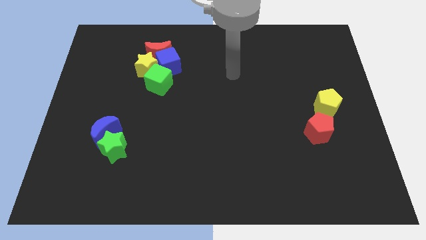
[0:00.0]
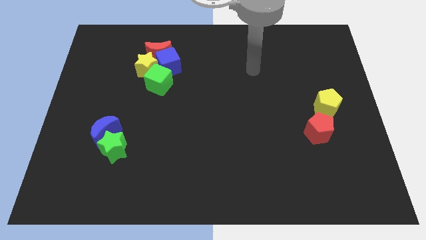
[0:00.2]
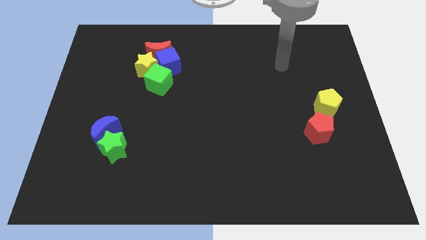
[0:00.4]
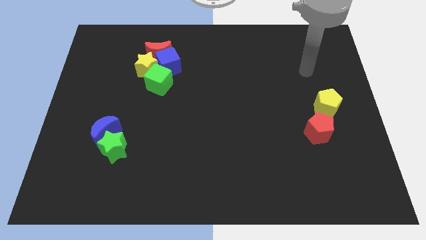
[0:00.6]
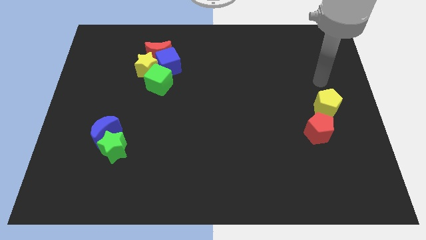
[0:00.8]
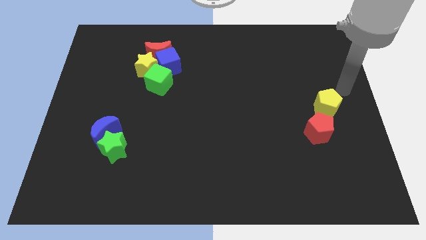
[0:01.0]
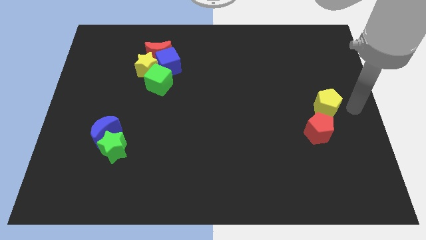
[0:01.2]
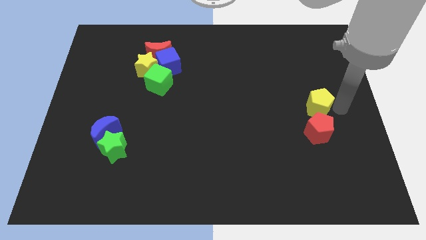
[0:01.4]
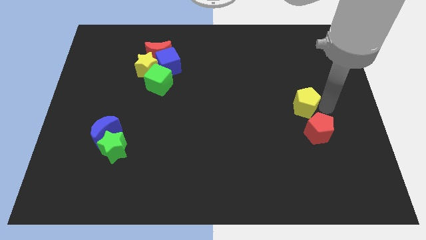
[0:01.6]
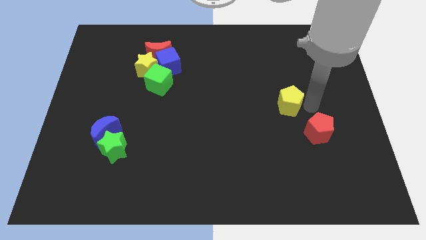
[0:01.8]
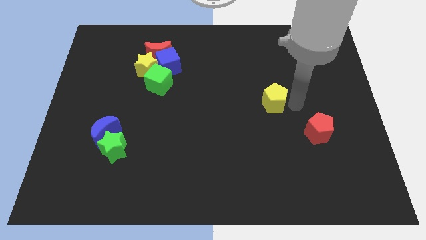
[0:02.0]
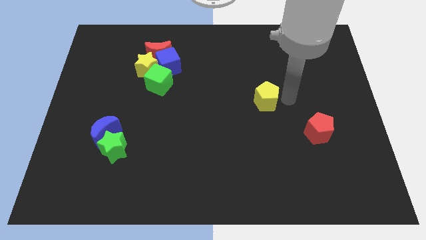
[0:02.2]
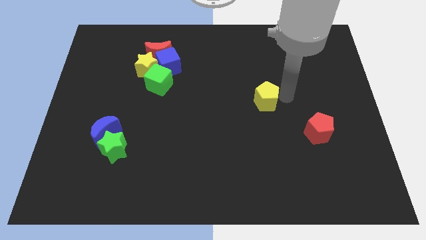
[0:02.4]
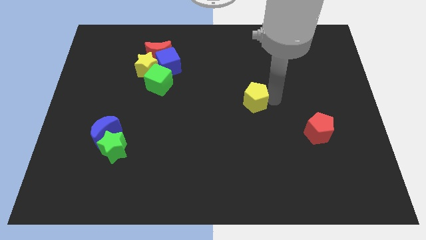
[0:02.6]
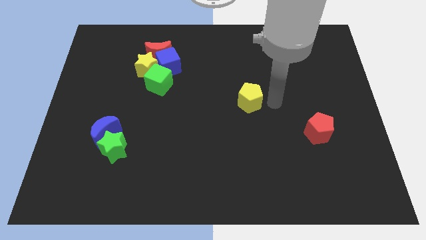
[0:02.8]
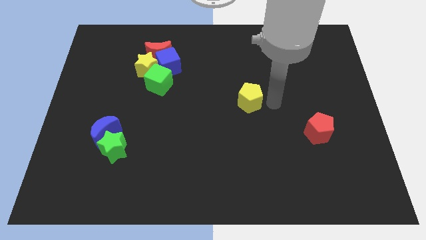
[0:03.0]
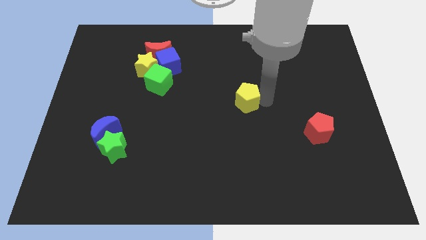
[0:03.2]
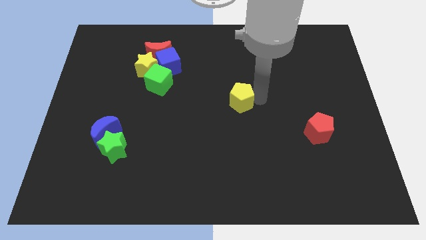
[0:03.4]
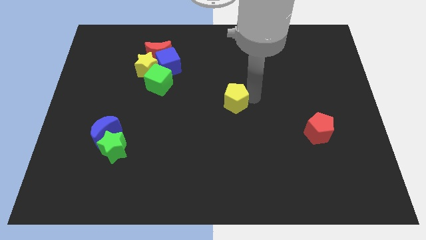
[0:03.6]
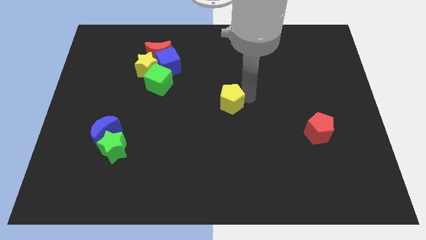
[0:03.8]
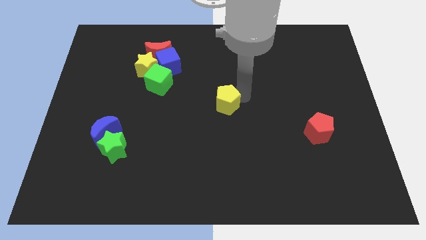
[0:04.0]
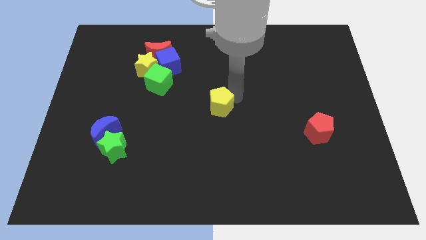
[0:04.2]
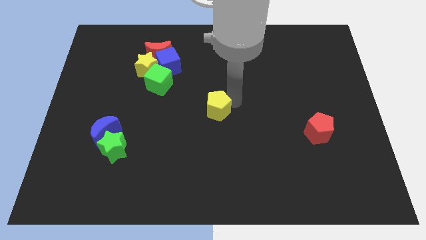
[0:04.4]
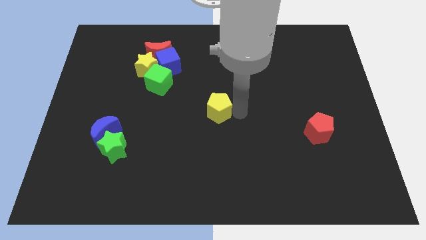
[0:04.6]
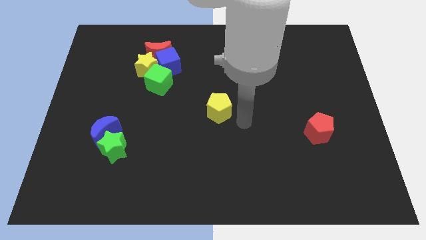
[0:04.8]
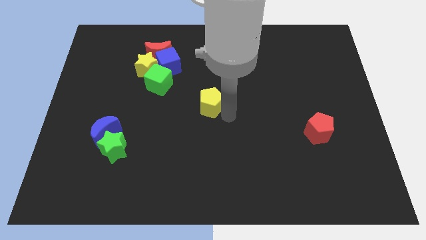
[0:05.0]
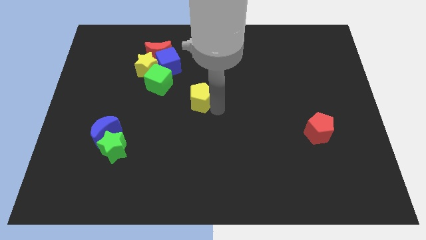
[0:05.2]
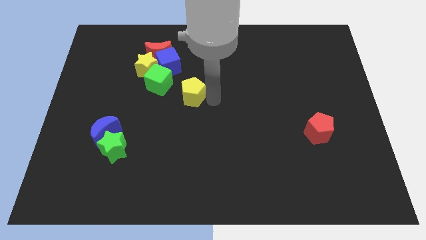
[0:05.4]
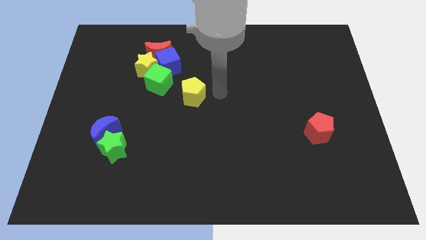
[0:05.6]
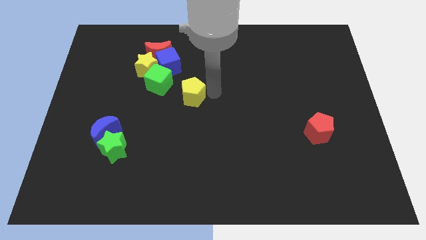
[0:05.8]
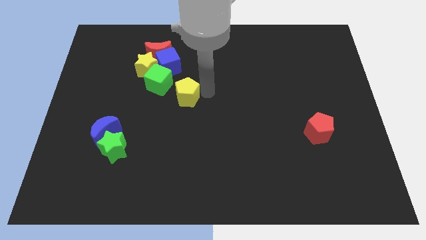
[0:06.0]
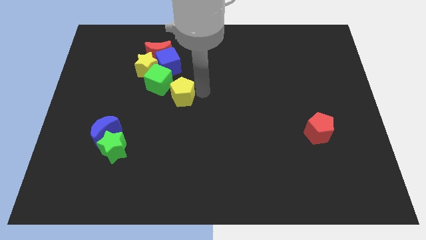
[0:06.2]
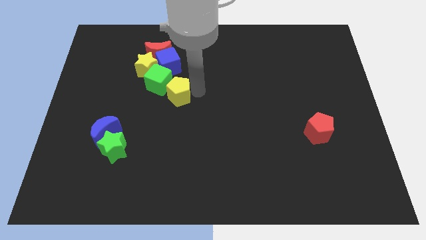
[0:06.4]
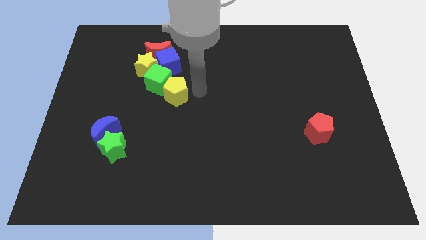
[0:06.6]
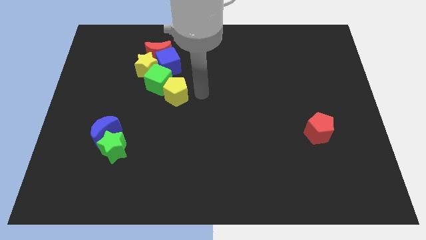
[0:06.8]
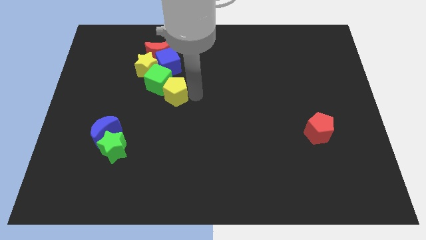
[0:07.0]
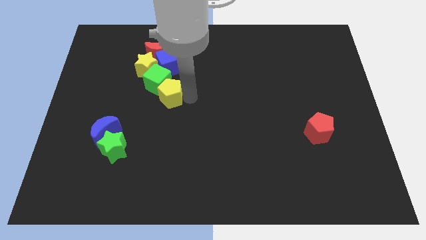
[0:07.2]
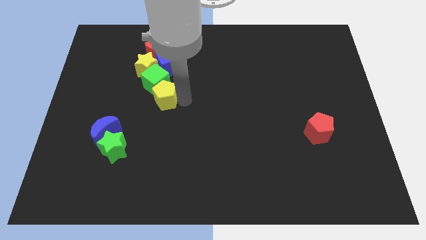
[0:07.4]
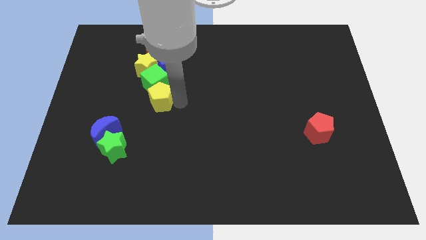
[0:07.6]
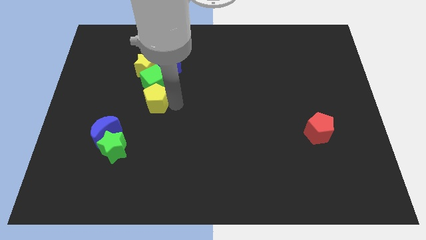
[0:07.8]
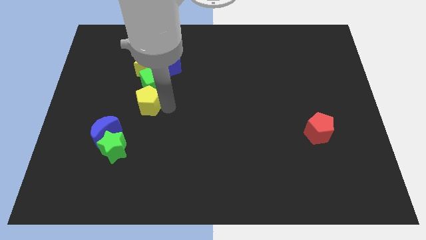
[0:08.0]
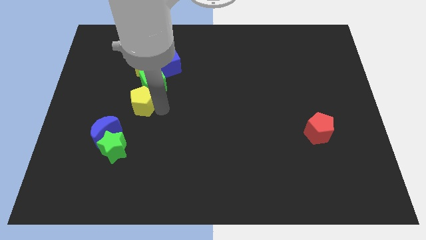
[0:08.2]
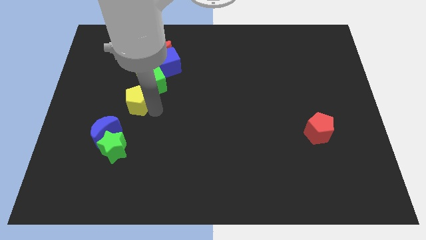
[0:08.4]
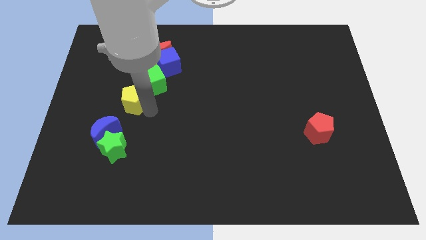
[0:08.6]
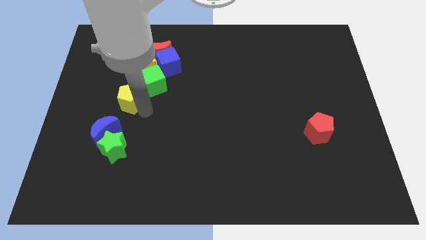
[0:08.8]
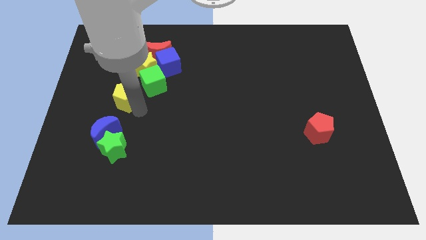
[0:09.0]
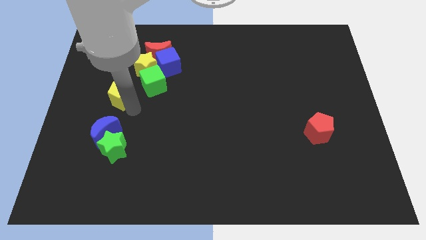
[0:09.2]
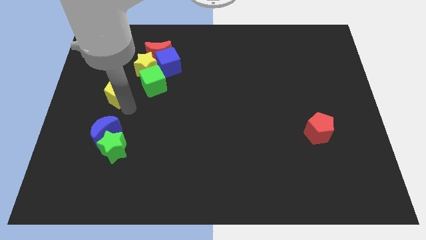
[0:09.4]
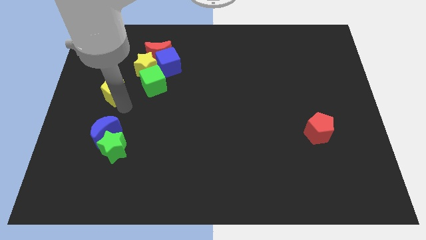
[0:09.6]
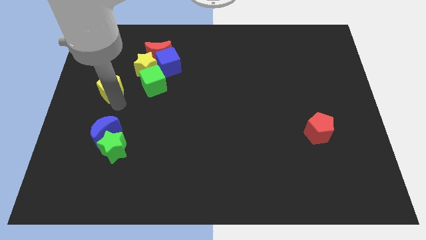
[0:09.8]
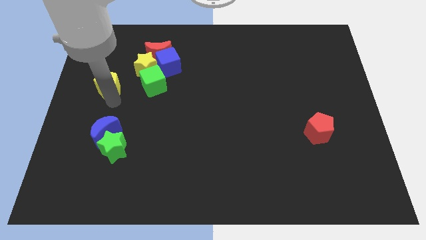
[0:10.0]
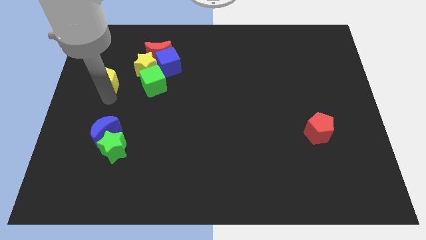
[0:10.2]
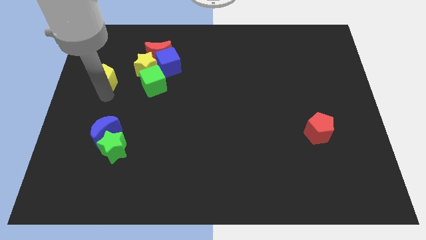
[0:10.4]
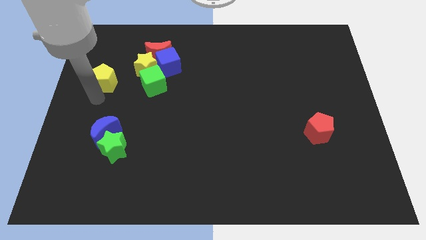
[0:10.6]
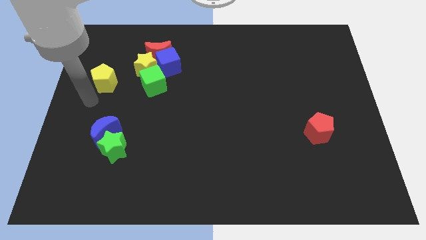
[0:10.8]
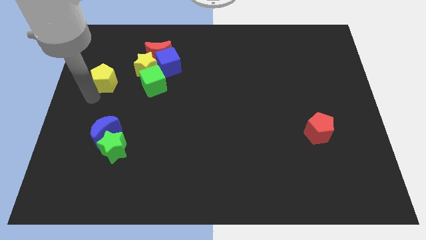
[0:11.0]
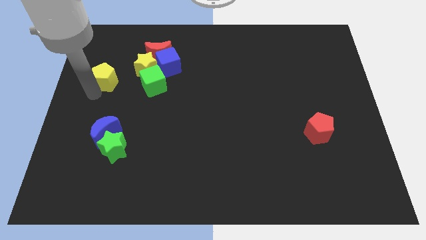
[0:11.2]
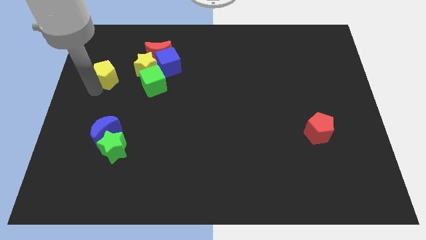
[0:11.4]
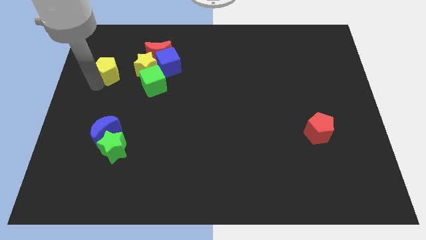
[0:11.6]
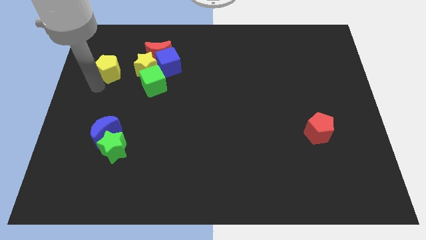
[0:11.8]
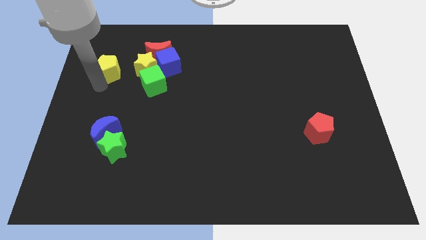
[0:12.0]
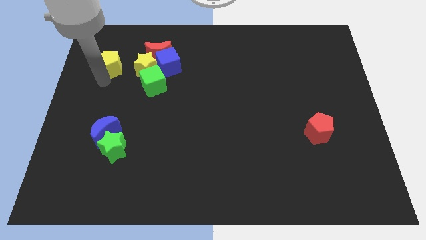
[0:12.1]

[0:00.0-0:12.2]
push the yellow pentagon to the left of the red moon

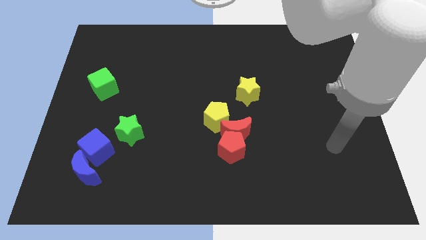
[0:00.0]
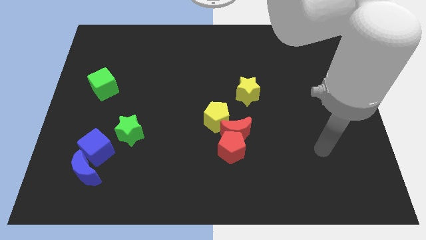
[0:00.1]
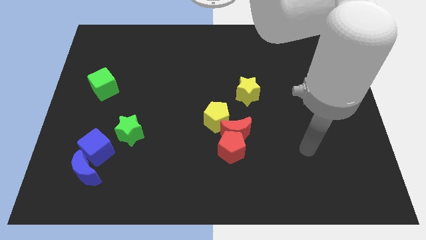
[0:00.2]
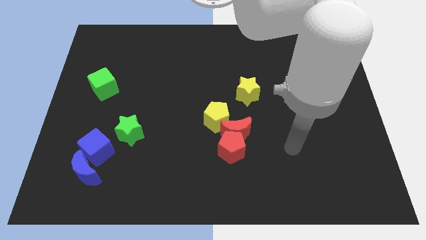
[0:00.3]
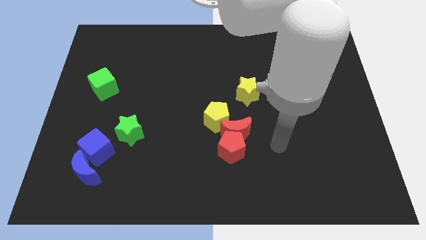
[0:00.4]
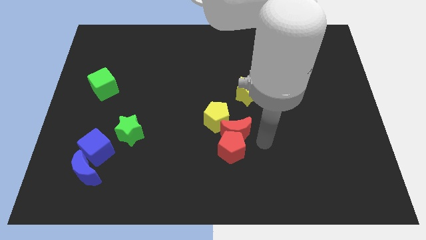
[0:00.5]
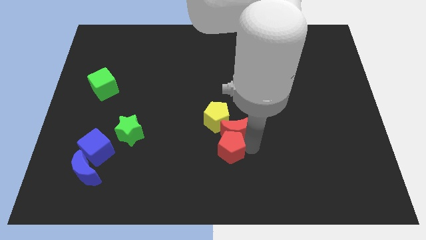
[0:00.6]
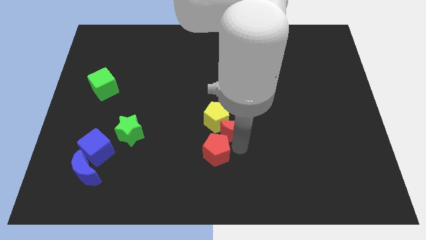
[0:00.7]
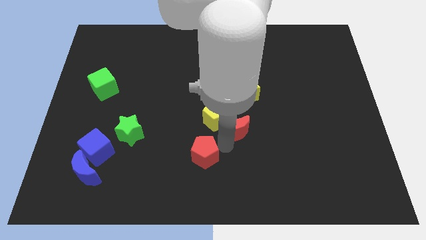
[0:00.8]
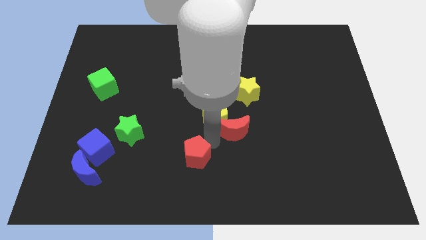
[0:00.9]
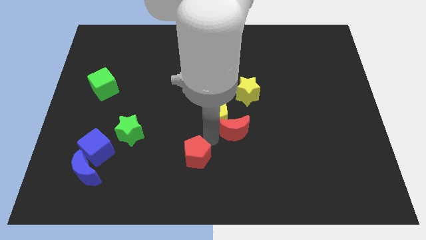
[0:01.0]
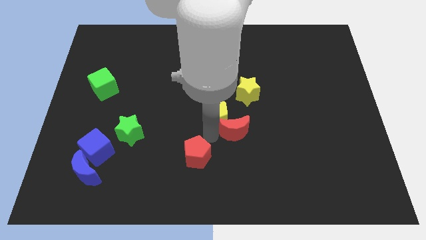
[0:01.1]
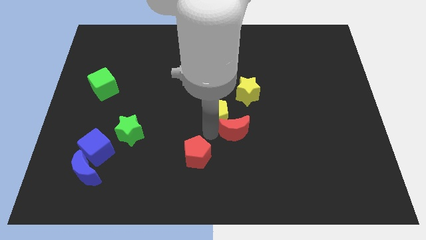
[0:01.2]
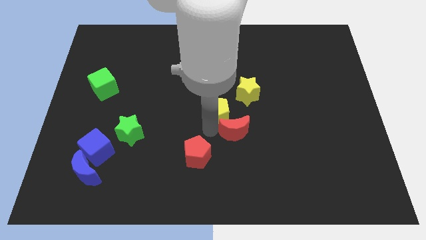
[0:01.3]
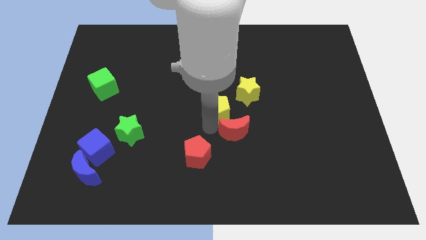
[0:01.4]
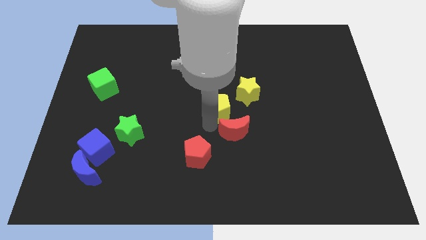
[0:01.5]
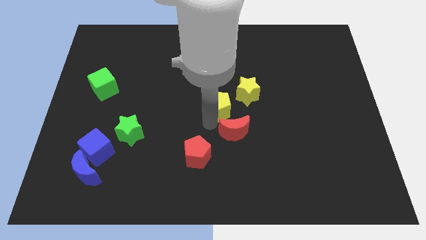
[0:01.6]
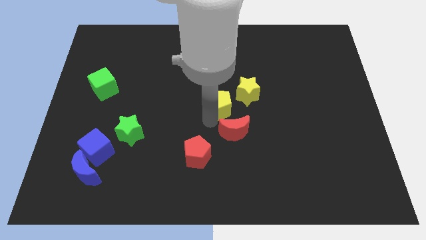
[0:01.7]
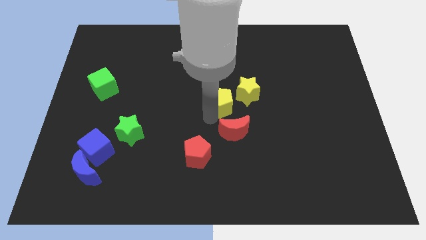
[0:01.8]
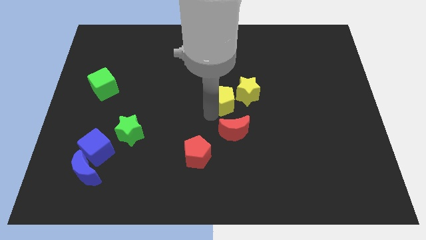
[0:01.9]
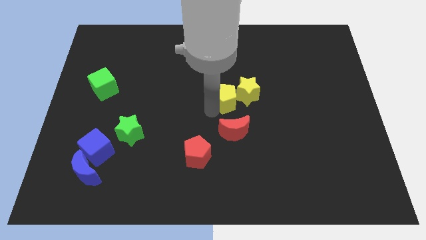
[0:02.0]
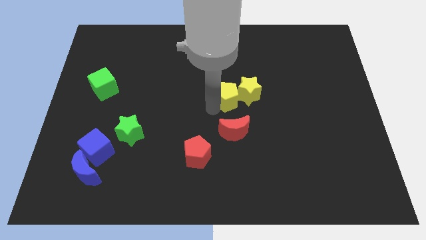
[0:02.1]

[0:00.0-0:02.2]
put the yellow pentagon to the top left side of the yellow star
